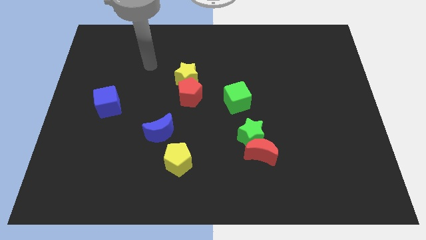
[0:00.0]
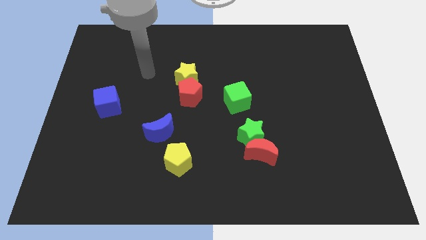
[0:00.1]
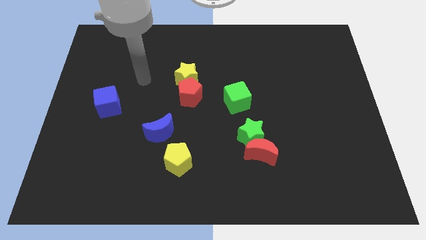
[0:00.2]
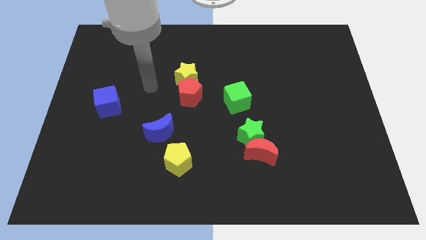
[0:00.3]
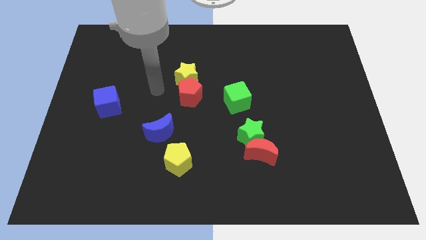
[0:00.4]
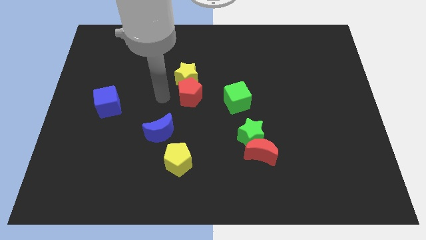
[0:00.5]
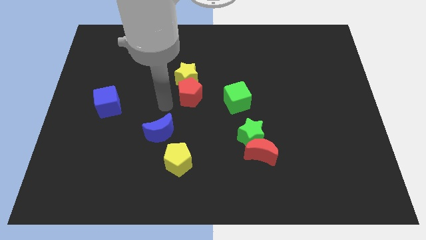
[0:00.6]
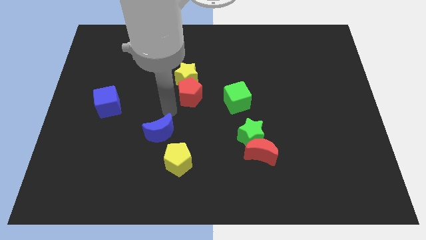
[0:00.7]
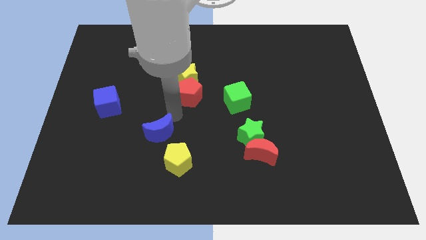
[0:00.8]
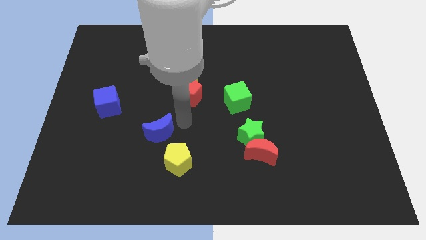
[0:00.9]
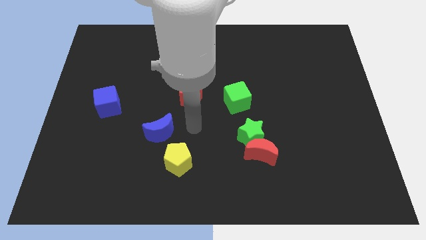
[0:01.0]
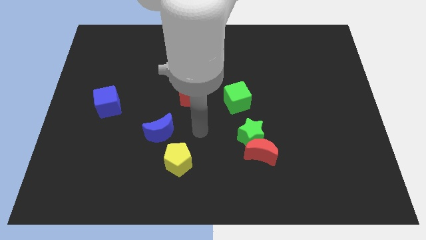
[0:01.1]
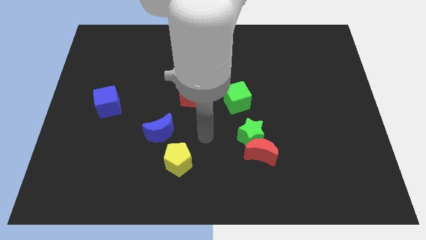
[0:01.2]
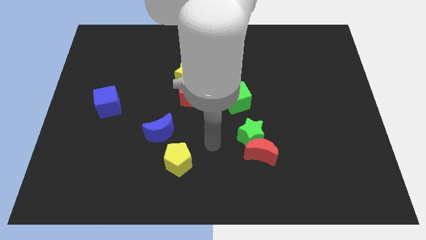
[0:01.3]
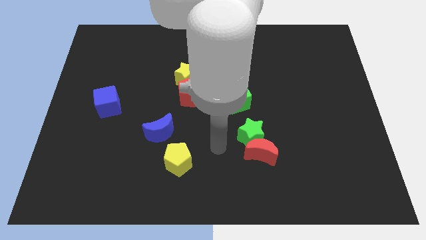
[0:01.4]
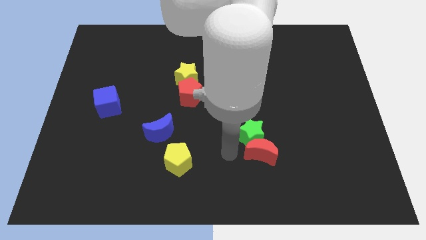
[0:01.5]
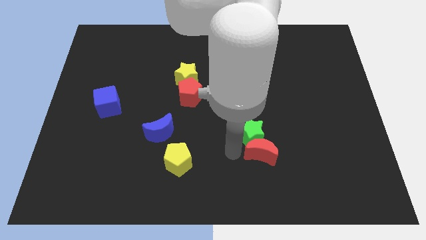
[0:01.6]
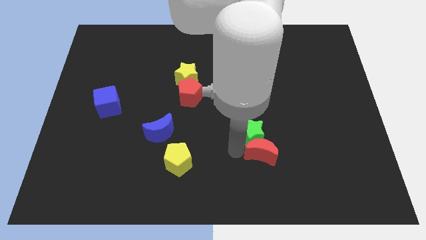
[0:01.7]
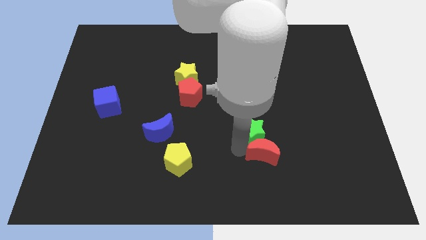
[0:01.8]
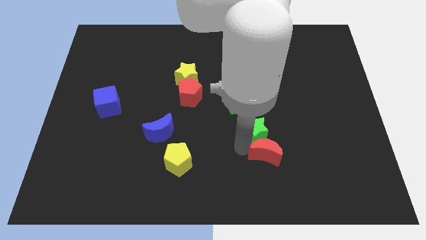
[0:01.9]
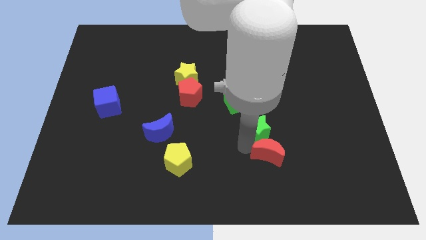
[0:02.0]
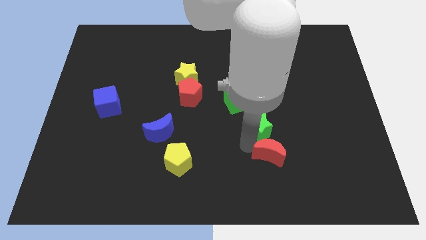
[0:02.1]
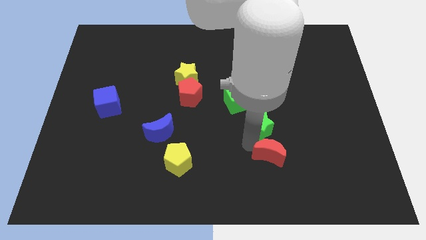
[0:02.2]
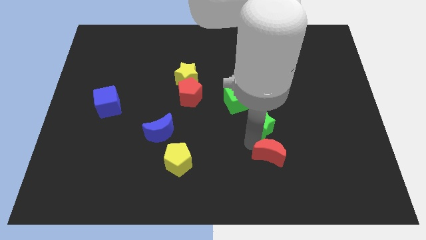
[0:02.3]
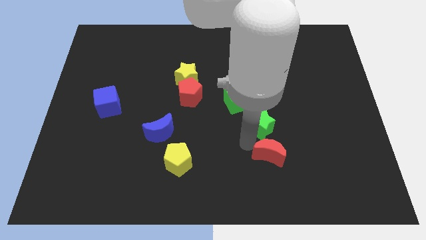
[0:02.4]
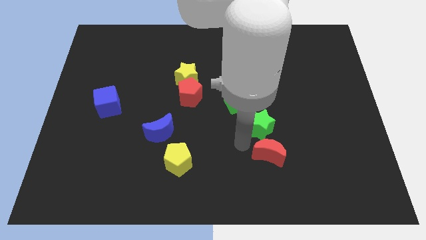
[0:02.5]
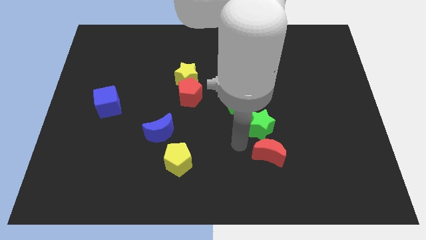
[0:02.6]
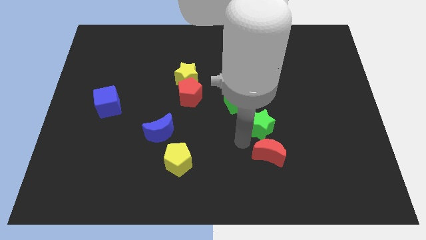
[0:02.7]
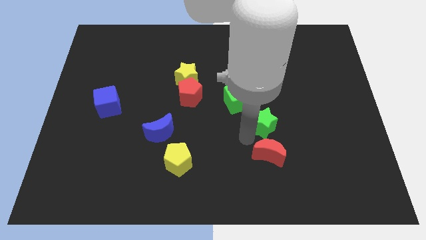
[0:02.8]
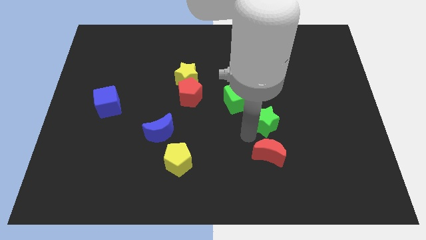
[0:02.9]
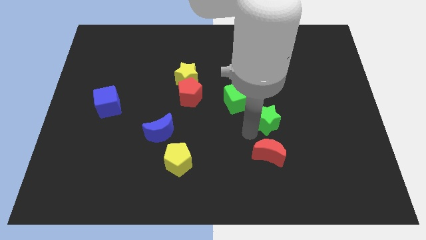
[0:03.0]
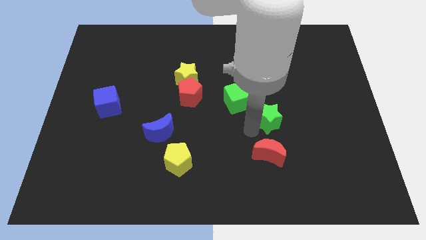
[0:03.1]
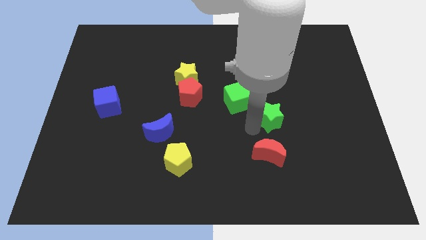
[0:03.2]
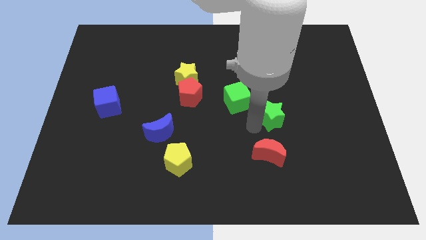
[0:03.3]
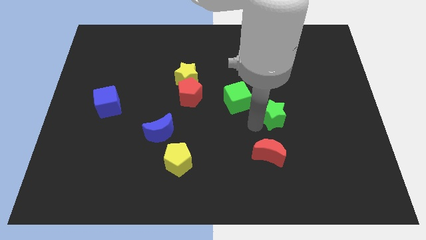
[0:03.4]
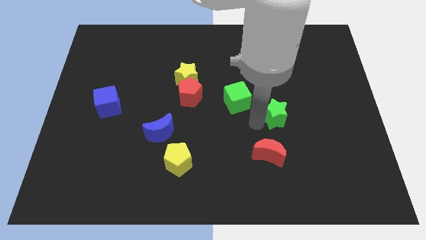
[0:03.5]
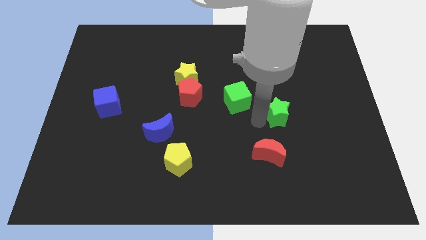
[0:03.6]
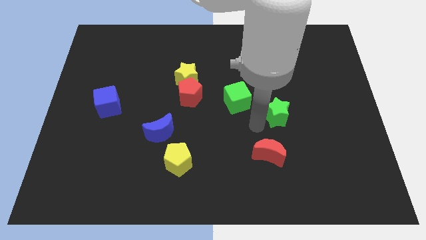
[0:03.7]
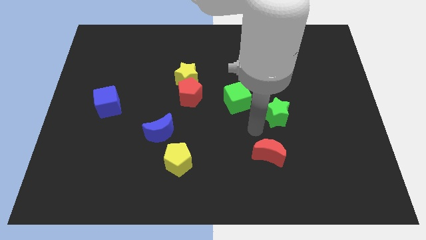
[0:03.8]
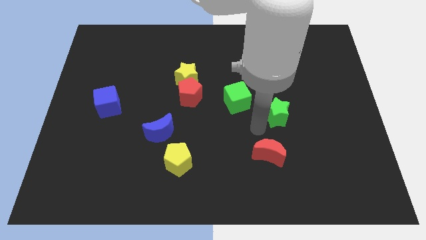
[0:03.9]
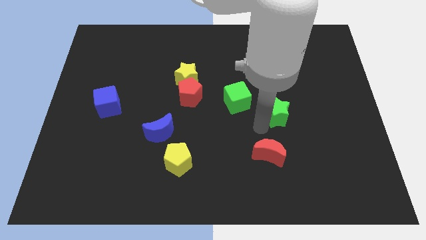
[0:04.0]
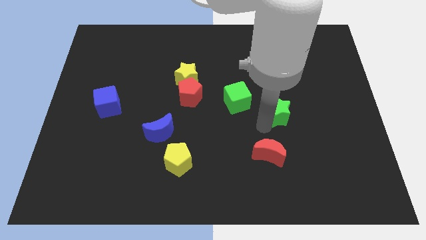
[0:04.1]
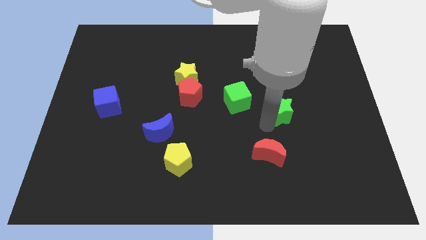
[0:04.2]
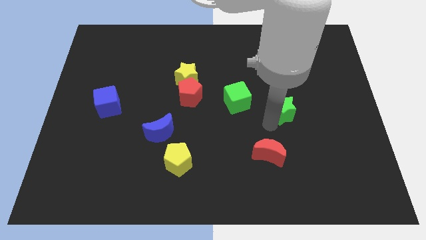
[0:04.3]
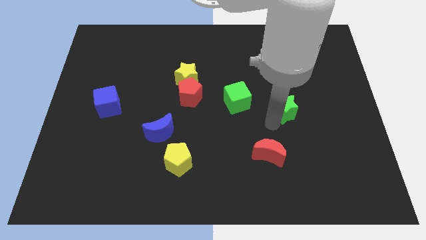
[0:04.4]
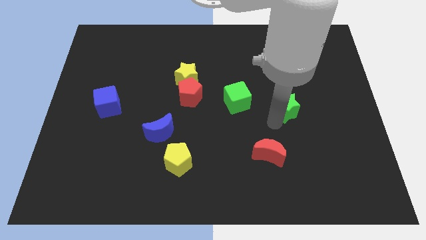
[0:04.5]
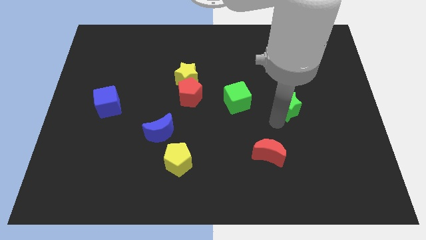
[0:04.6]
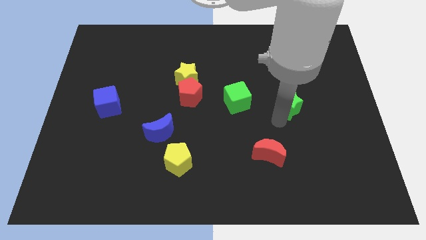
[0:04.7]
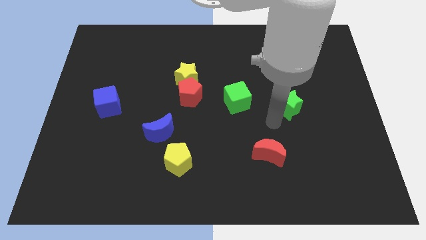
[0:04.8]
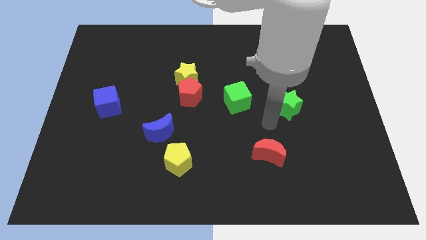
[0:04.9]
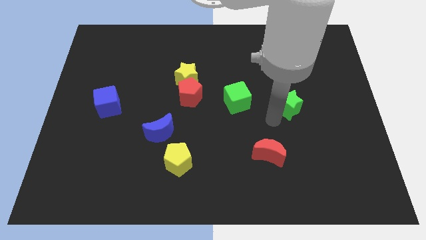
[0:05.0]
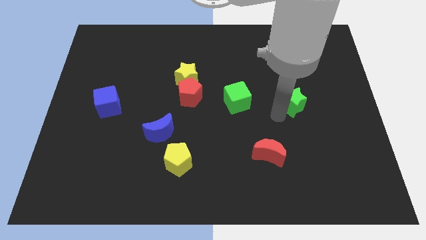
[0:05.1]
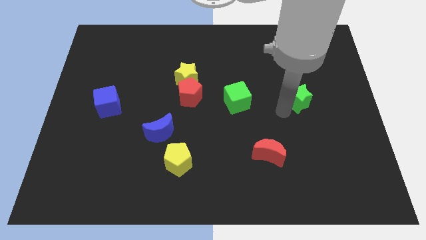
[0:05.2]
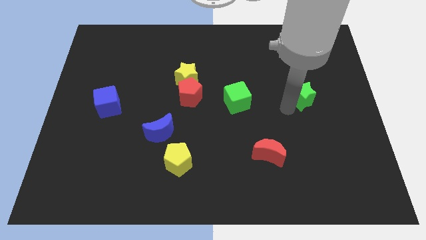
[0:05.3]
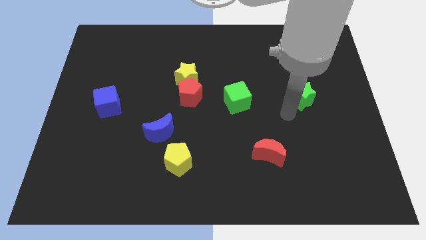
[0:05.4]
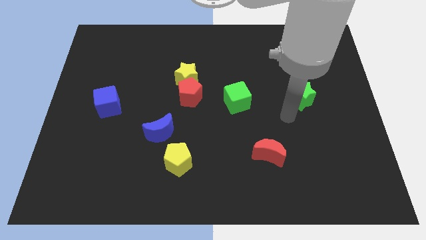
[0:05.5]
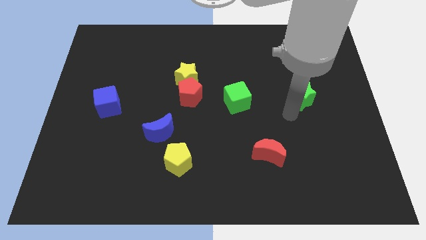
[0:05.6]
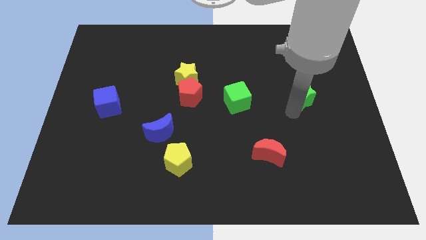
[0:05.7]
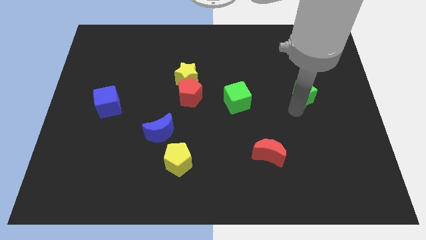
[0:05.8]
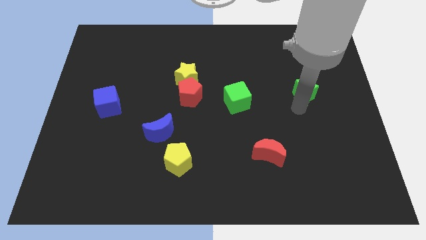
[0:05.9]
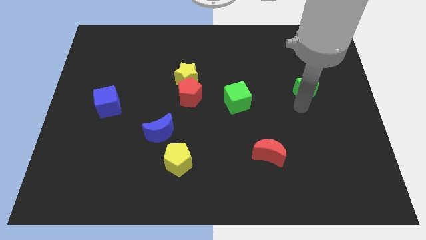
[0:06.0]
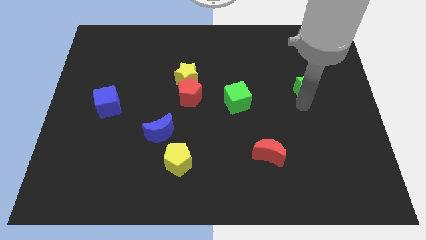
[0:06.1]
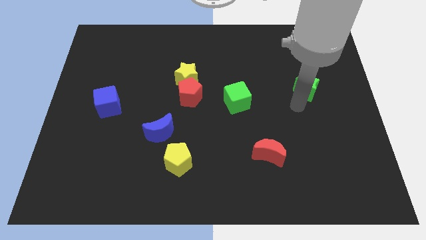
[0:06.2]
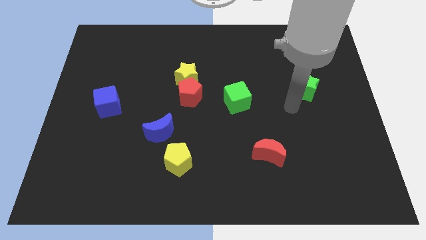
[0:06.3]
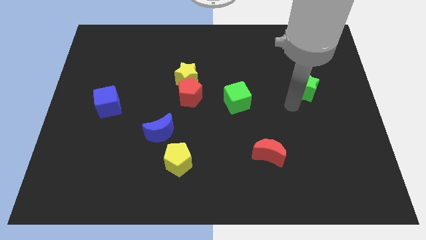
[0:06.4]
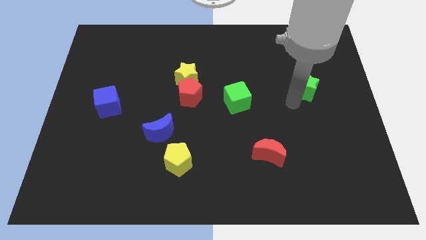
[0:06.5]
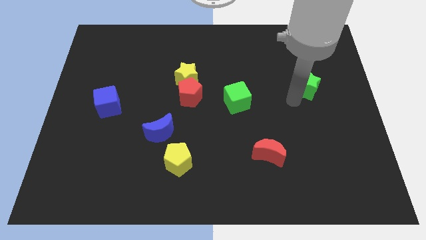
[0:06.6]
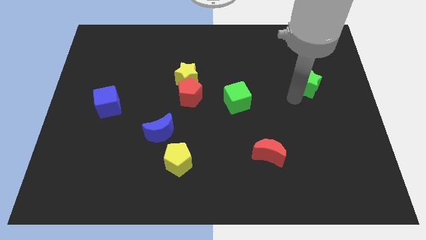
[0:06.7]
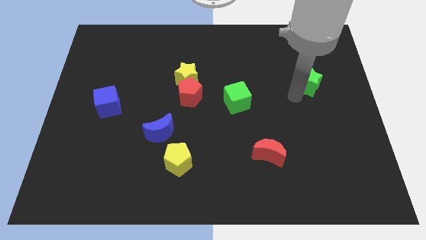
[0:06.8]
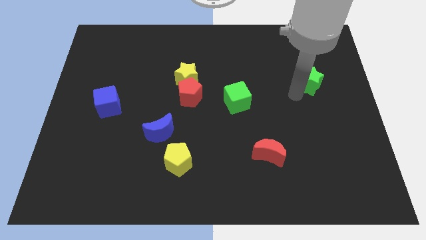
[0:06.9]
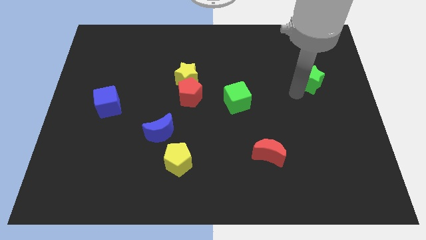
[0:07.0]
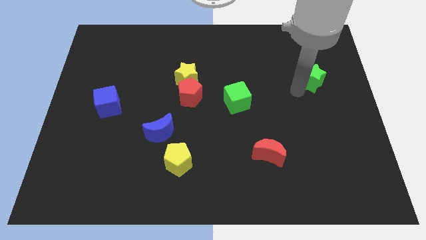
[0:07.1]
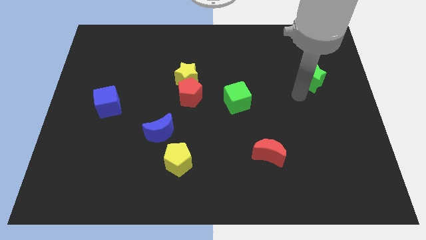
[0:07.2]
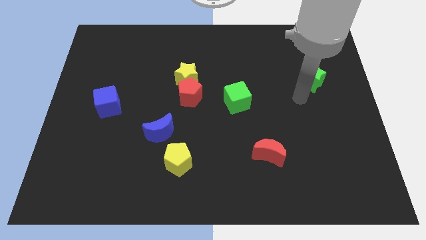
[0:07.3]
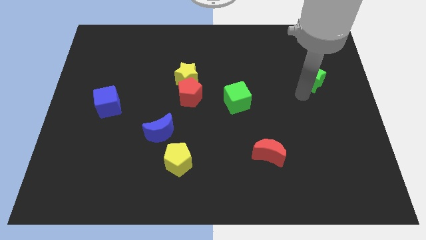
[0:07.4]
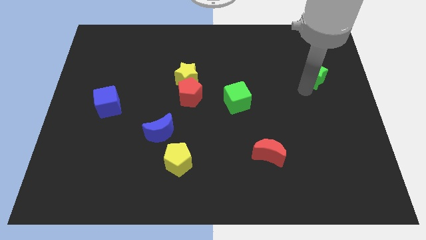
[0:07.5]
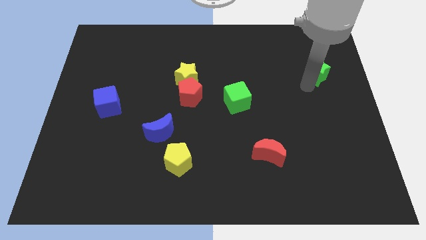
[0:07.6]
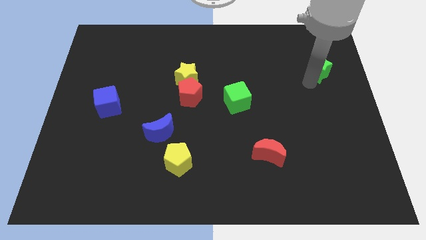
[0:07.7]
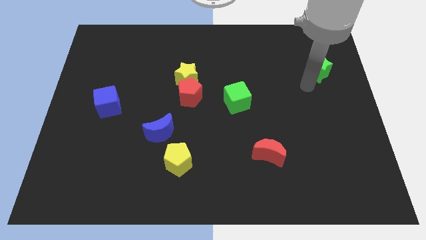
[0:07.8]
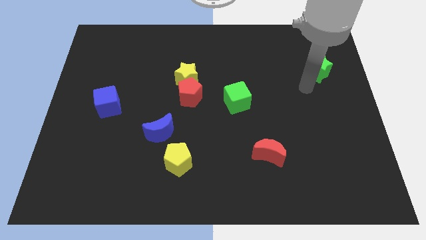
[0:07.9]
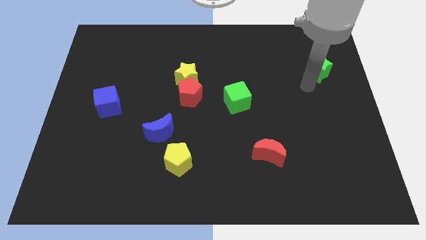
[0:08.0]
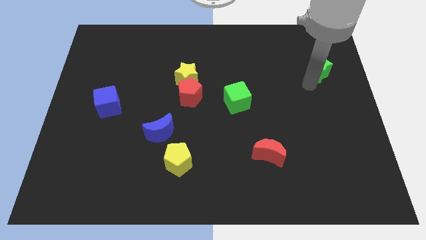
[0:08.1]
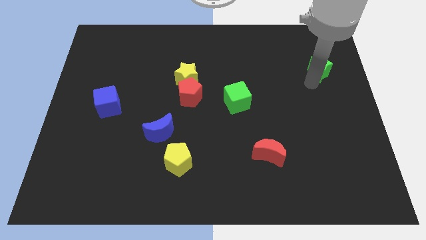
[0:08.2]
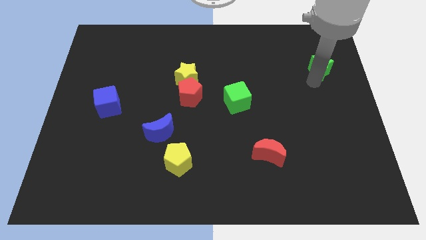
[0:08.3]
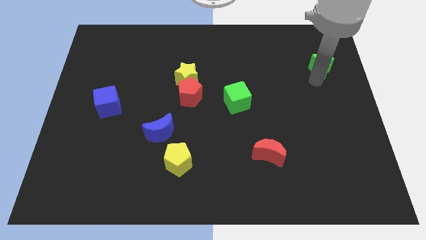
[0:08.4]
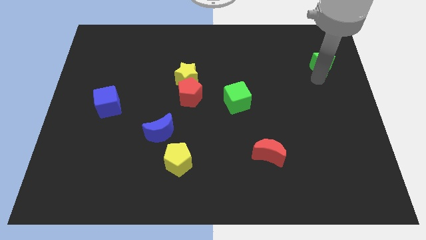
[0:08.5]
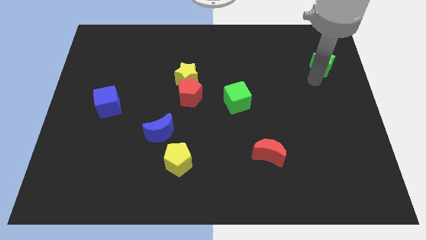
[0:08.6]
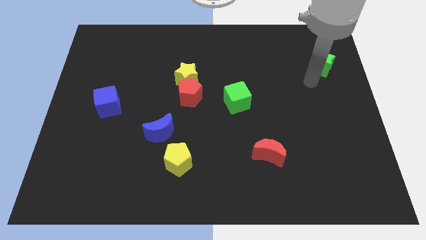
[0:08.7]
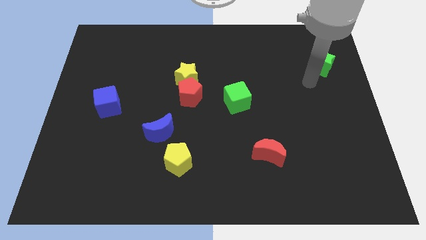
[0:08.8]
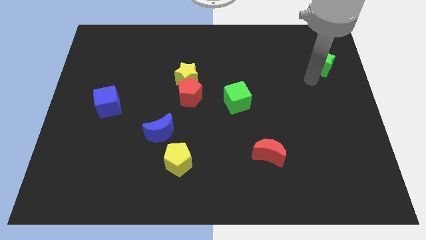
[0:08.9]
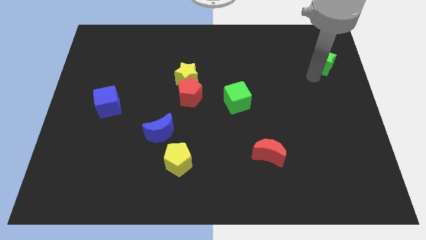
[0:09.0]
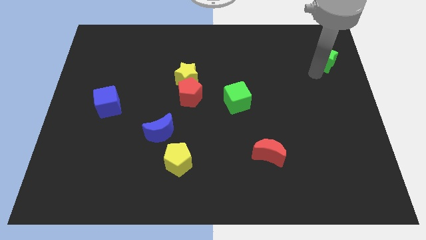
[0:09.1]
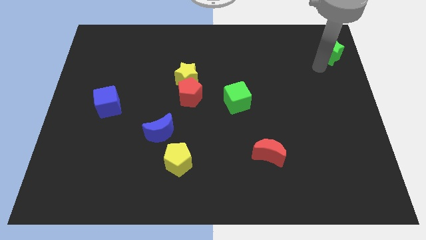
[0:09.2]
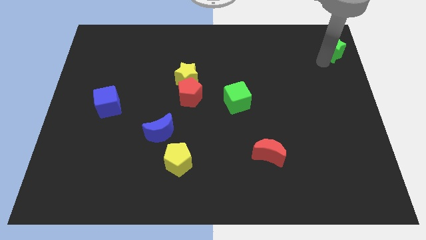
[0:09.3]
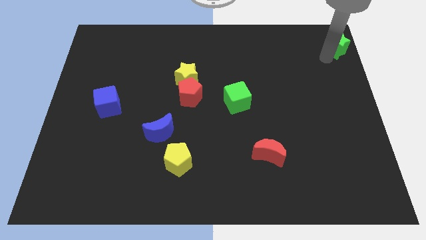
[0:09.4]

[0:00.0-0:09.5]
put the green star to the top right corner
